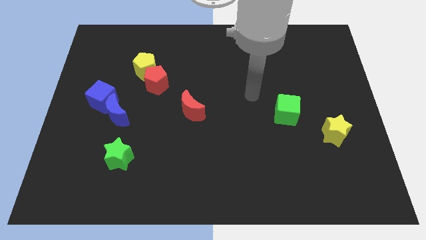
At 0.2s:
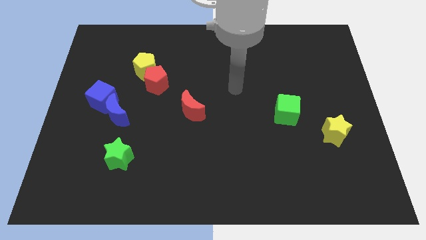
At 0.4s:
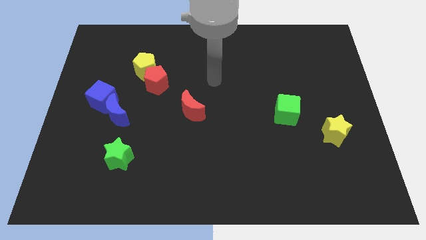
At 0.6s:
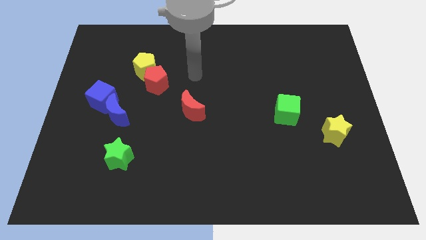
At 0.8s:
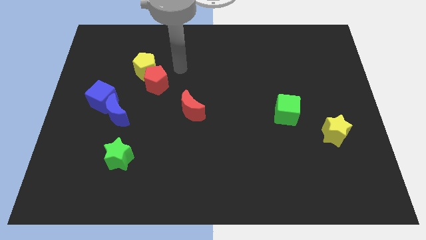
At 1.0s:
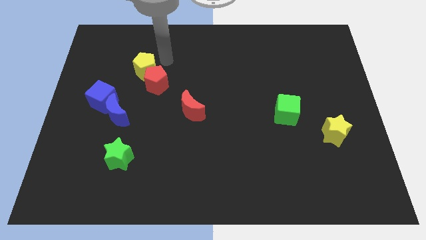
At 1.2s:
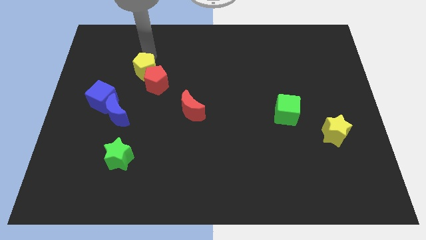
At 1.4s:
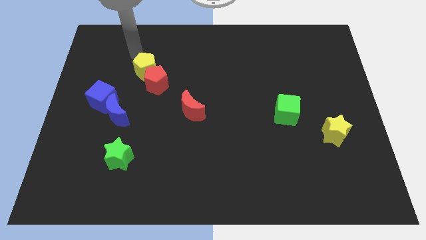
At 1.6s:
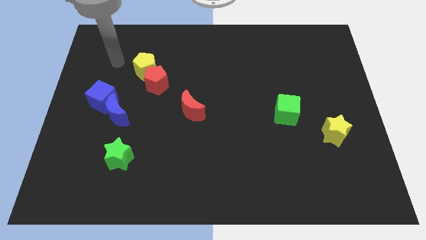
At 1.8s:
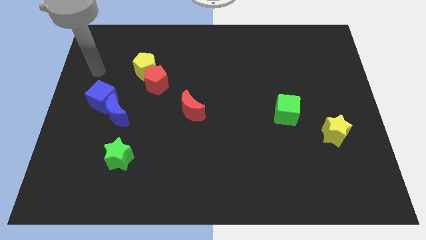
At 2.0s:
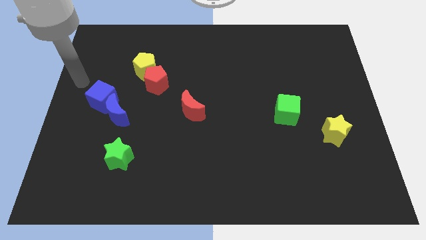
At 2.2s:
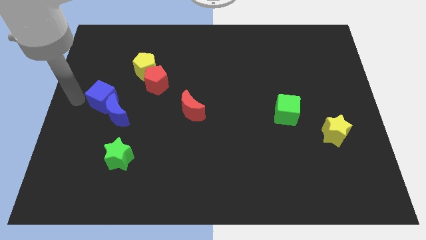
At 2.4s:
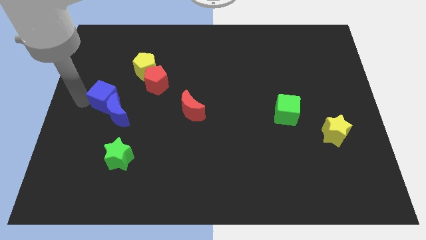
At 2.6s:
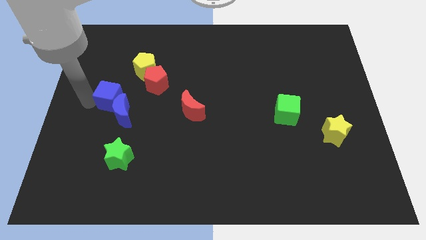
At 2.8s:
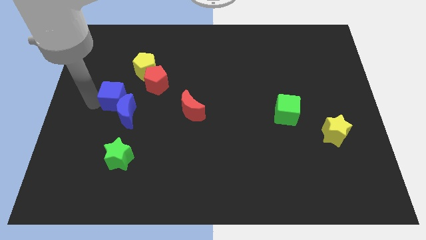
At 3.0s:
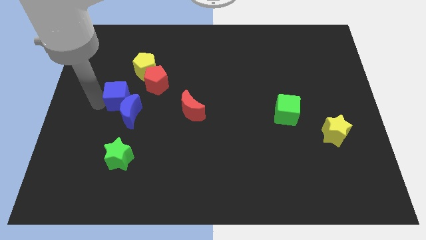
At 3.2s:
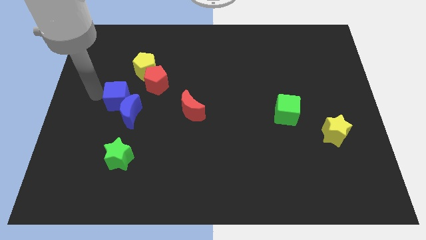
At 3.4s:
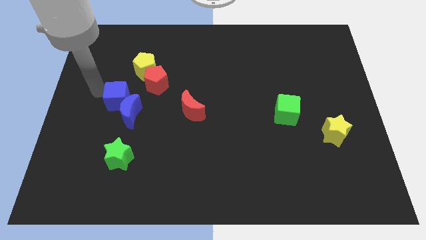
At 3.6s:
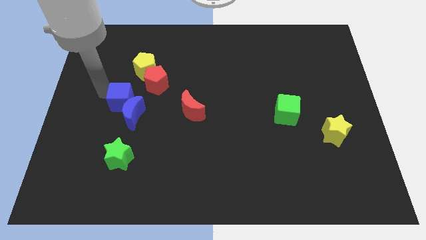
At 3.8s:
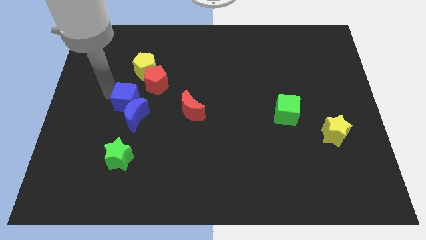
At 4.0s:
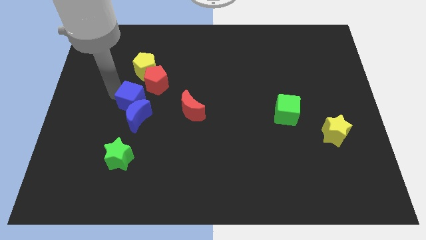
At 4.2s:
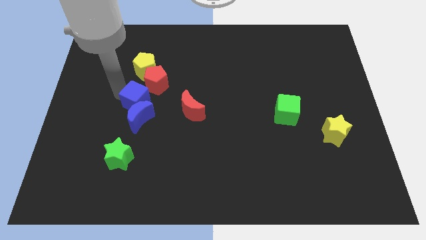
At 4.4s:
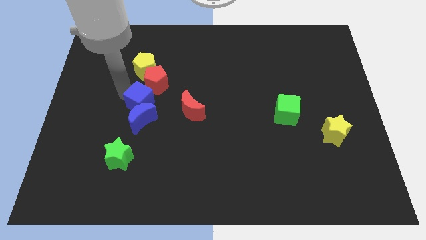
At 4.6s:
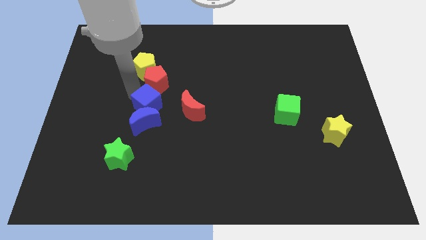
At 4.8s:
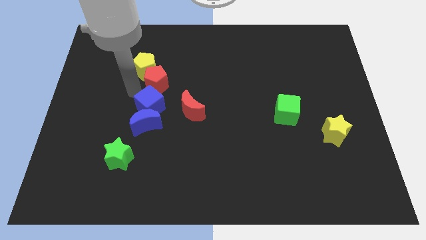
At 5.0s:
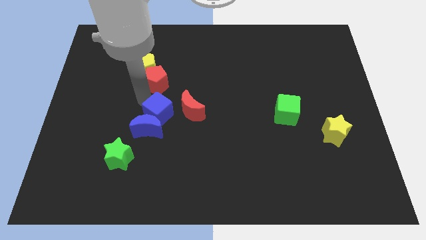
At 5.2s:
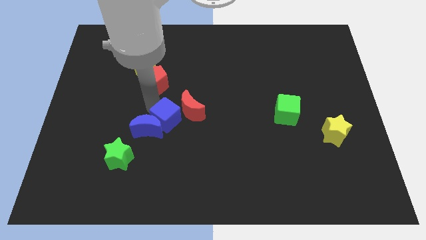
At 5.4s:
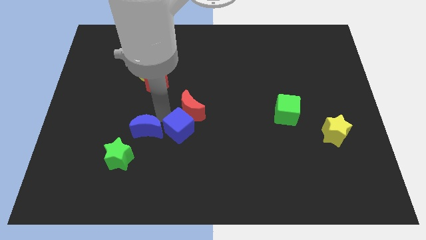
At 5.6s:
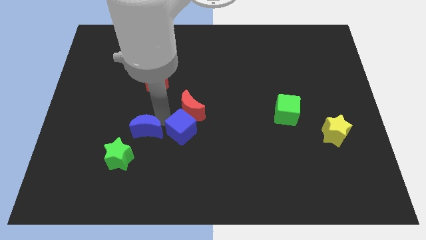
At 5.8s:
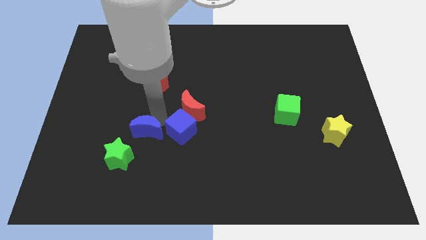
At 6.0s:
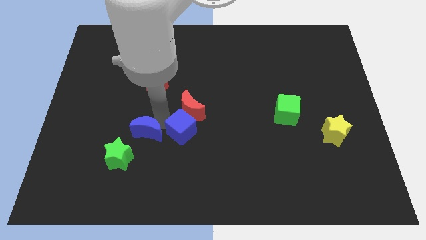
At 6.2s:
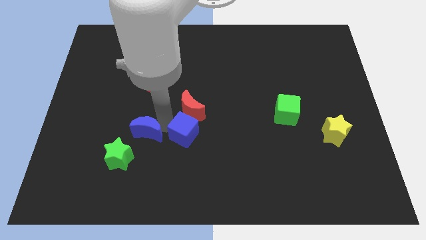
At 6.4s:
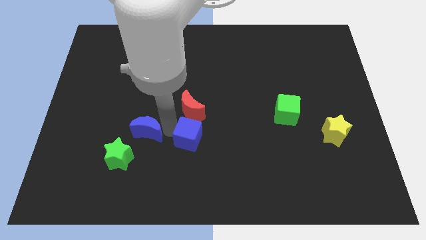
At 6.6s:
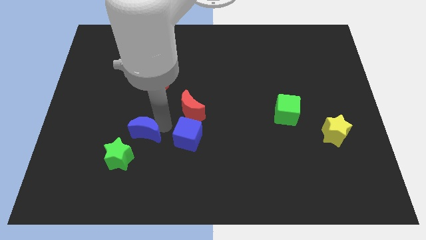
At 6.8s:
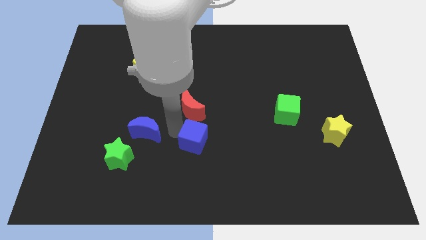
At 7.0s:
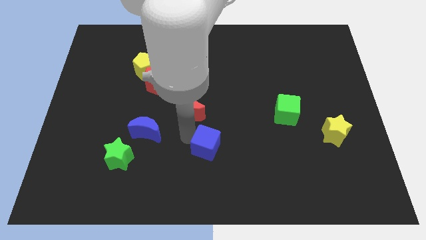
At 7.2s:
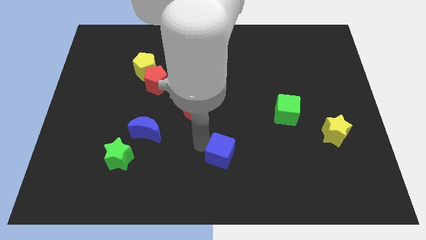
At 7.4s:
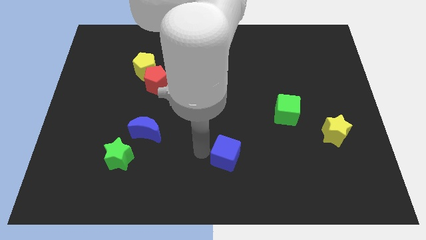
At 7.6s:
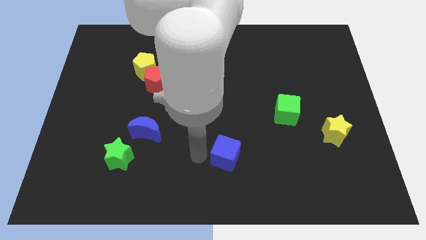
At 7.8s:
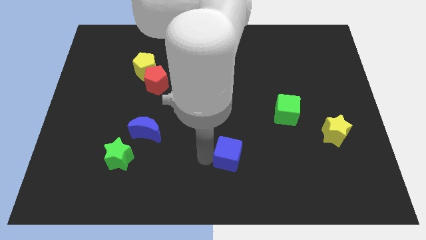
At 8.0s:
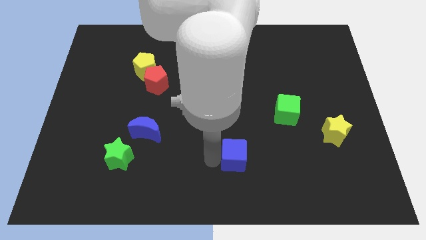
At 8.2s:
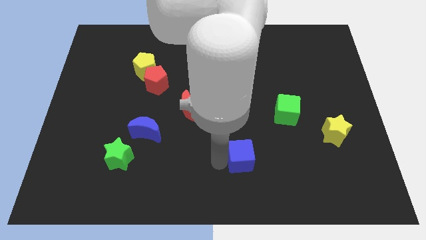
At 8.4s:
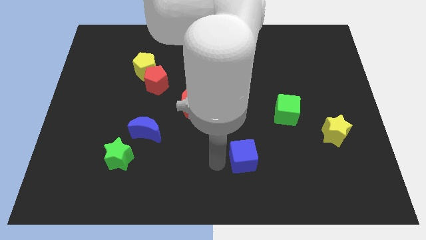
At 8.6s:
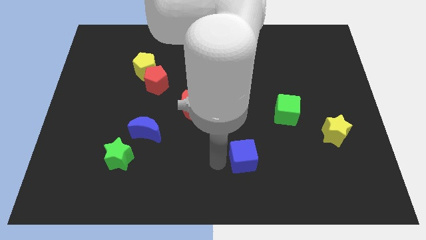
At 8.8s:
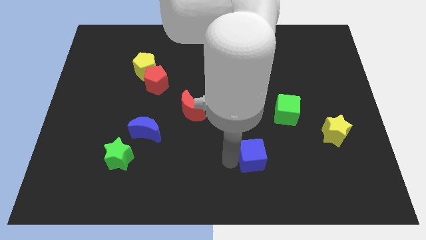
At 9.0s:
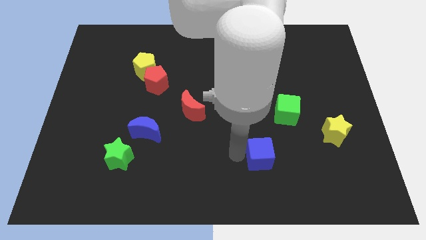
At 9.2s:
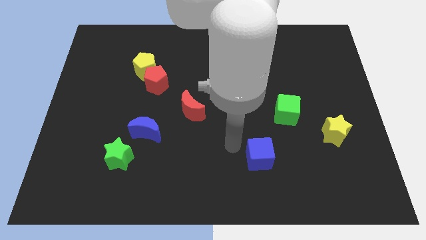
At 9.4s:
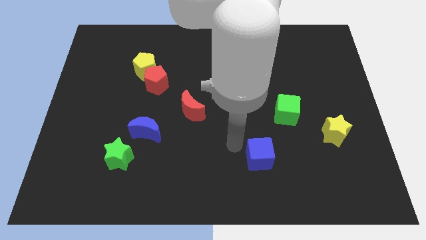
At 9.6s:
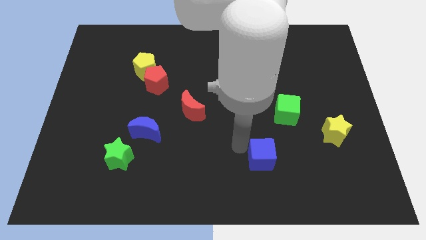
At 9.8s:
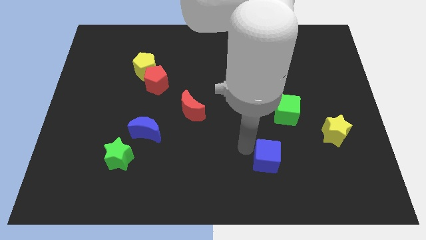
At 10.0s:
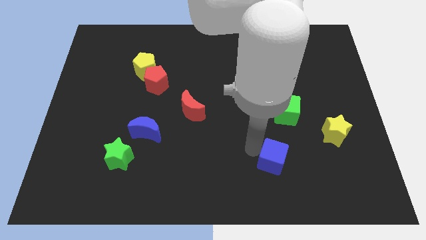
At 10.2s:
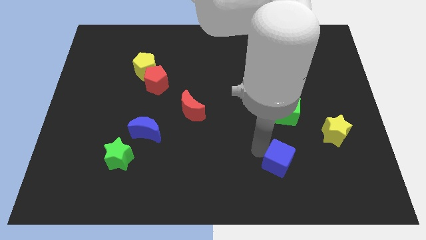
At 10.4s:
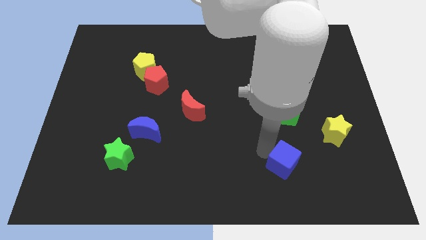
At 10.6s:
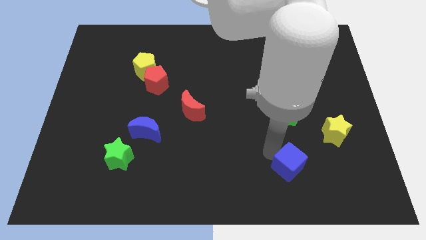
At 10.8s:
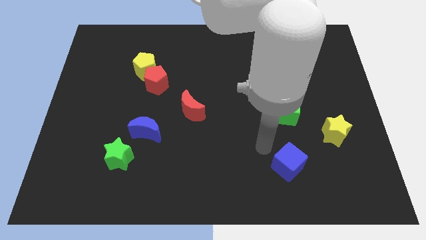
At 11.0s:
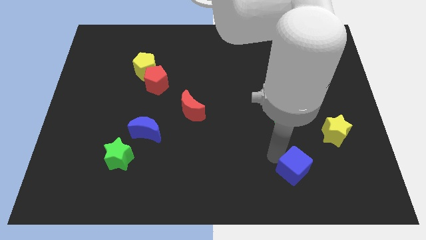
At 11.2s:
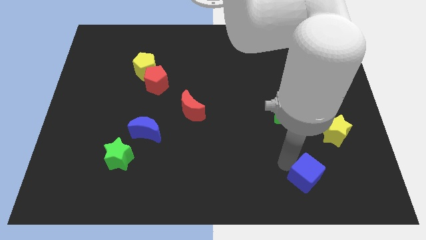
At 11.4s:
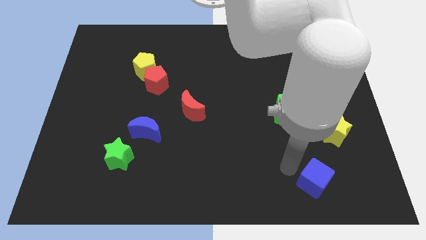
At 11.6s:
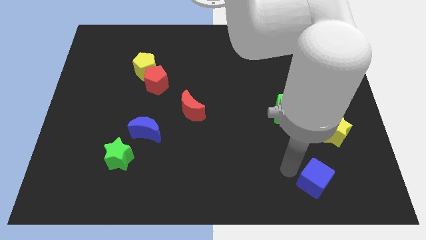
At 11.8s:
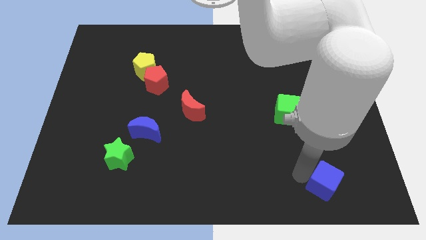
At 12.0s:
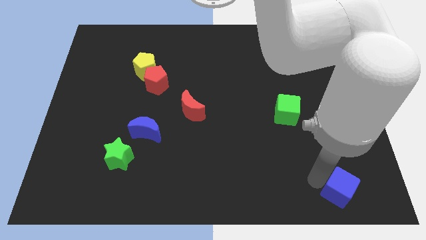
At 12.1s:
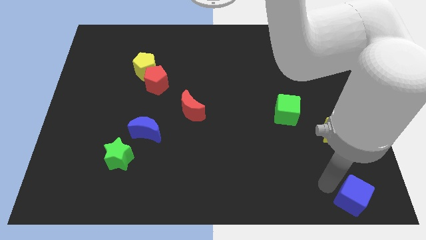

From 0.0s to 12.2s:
slide the blue cube to the bottom right
